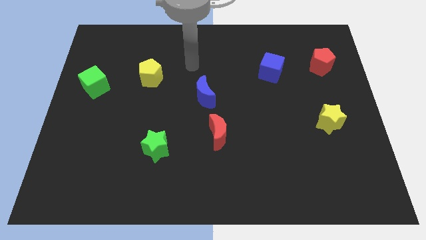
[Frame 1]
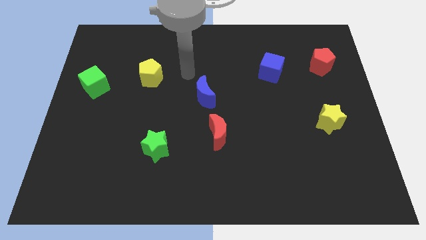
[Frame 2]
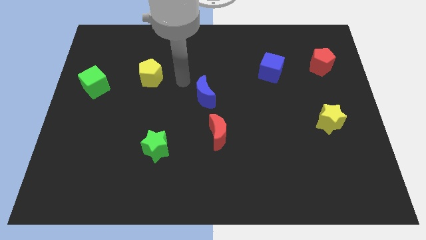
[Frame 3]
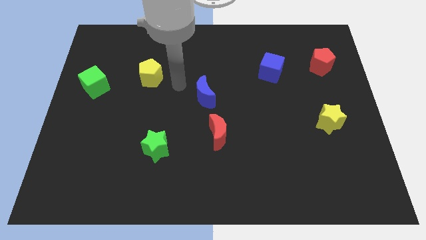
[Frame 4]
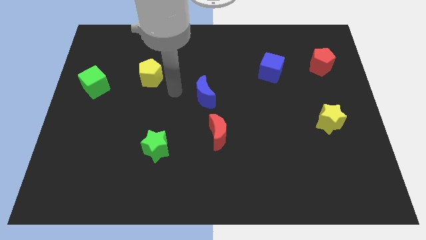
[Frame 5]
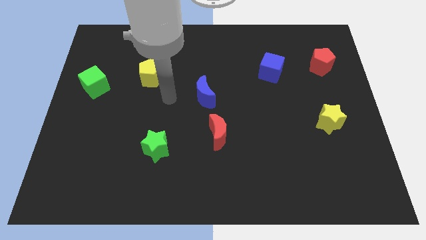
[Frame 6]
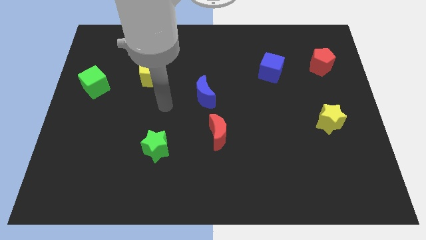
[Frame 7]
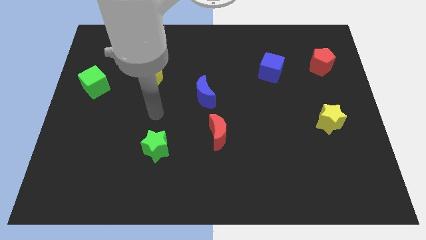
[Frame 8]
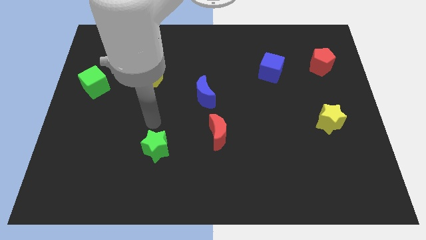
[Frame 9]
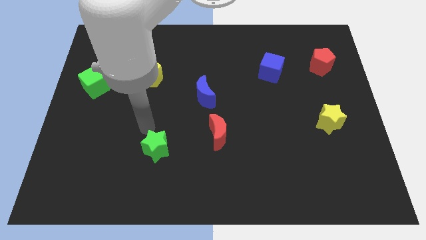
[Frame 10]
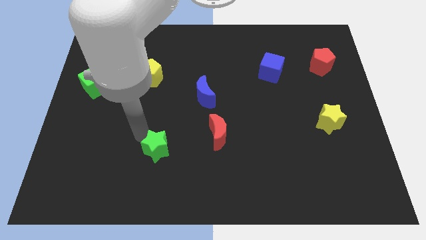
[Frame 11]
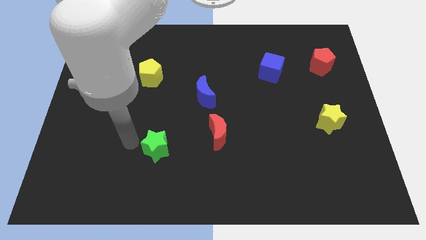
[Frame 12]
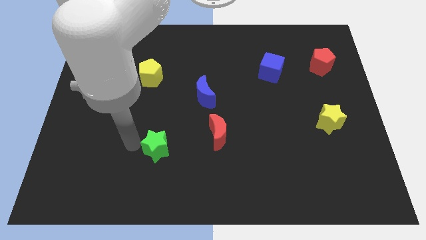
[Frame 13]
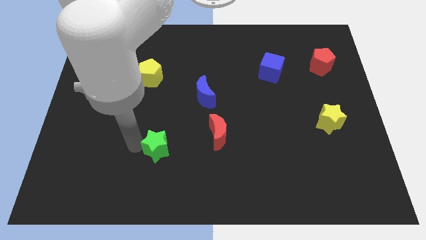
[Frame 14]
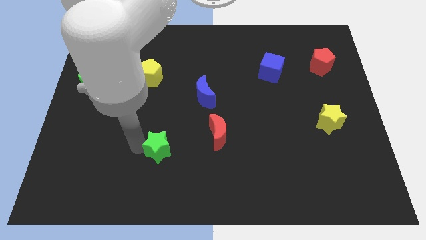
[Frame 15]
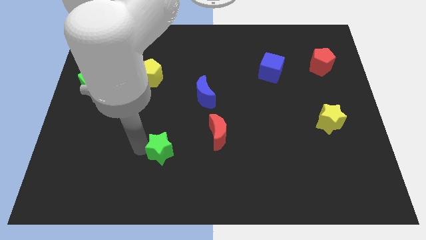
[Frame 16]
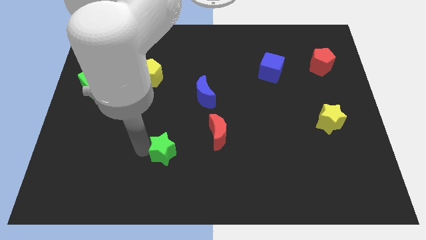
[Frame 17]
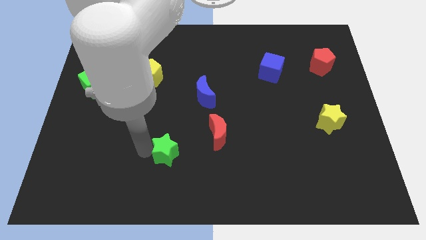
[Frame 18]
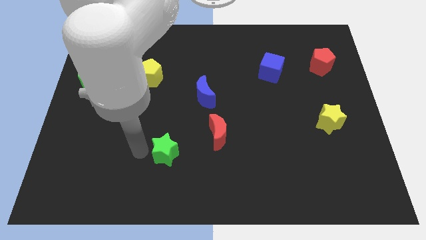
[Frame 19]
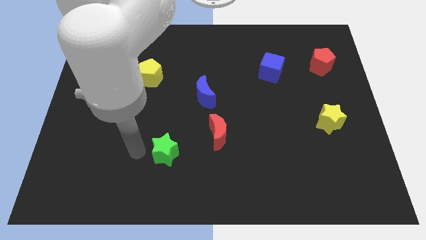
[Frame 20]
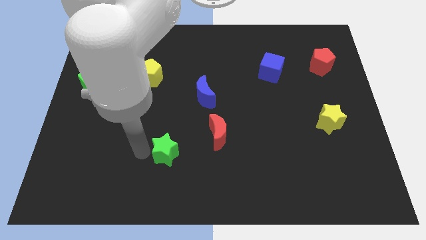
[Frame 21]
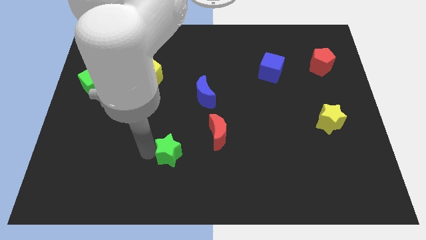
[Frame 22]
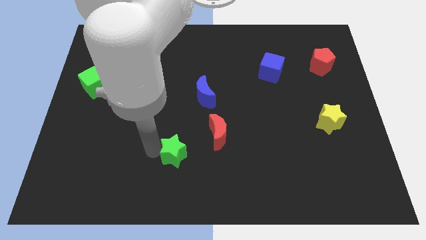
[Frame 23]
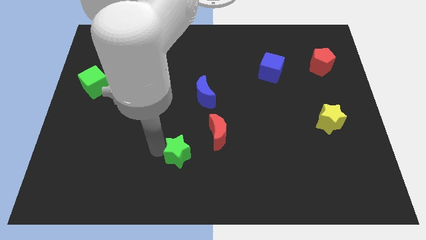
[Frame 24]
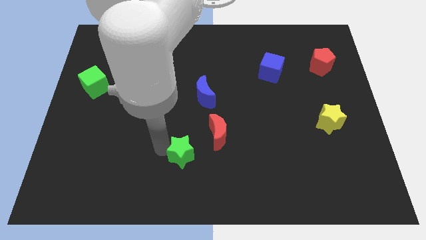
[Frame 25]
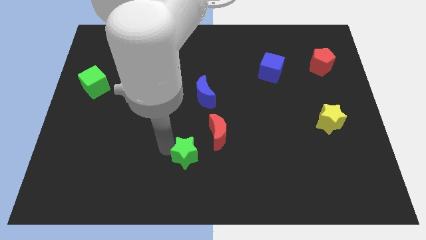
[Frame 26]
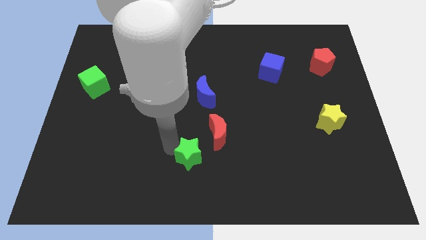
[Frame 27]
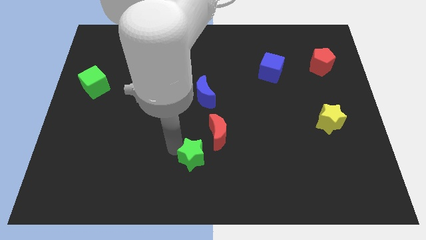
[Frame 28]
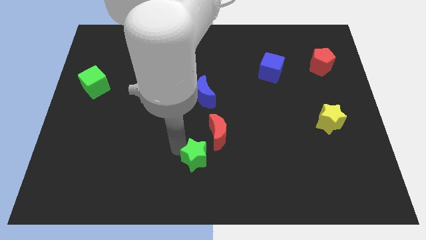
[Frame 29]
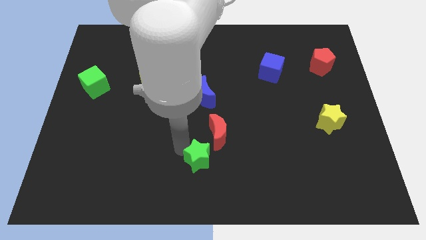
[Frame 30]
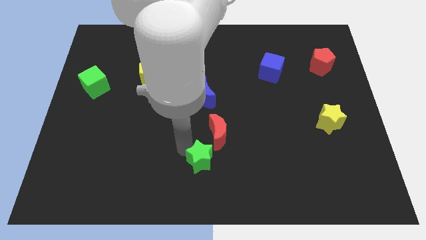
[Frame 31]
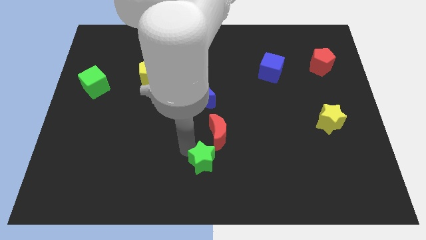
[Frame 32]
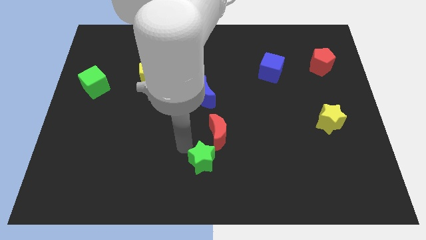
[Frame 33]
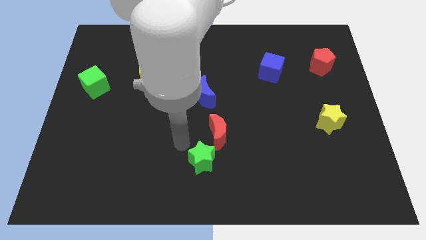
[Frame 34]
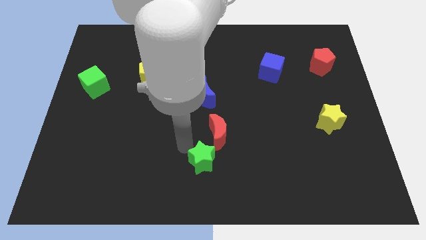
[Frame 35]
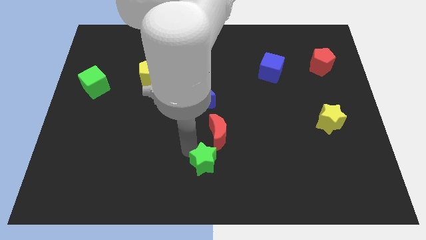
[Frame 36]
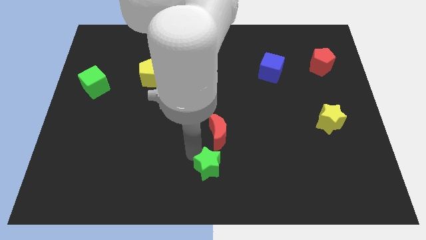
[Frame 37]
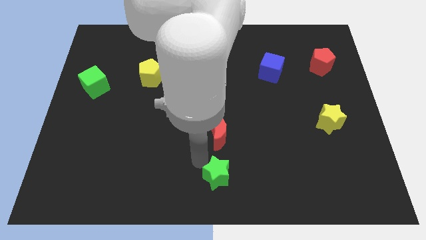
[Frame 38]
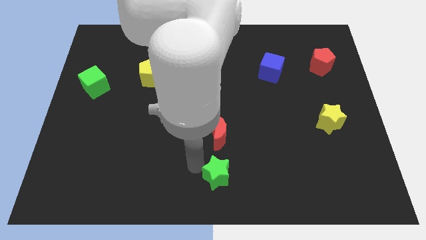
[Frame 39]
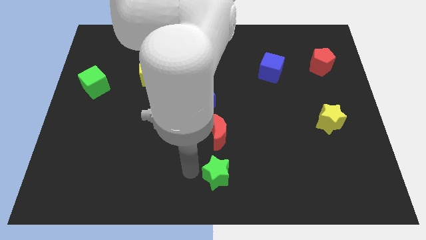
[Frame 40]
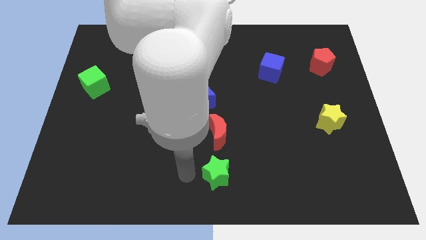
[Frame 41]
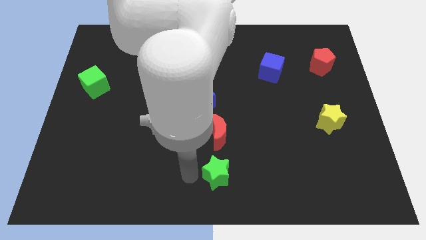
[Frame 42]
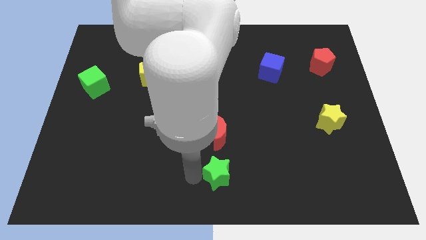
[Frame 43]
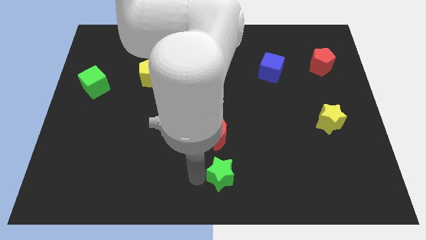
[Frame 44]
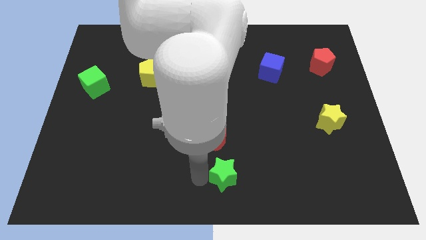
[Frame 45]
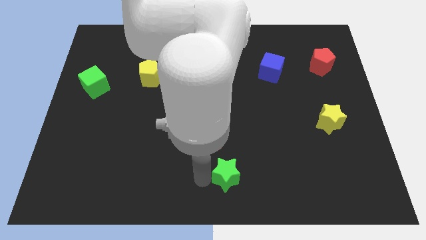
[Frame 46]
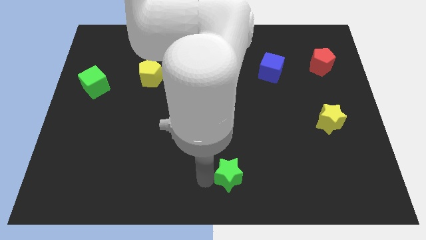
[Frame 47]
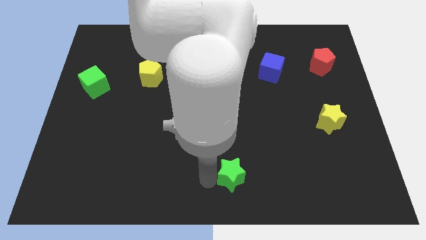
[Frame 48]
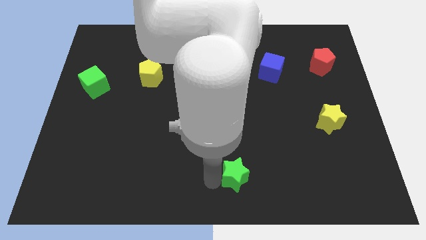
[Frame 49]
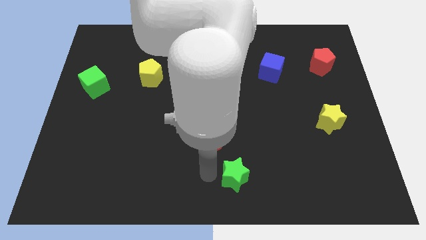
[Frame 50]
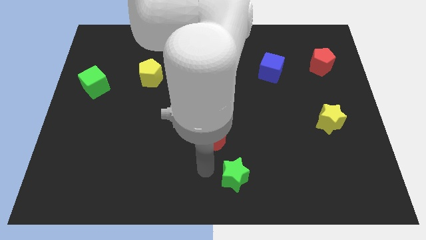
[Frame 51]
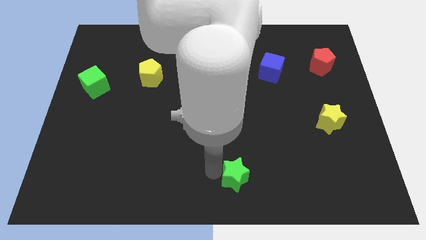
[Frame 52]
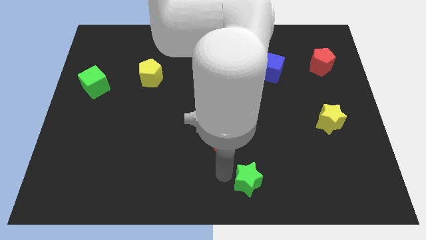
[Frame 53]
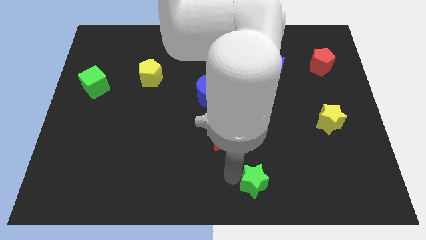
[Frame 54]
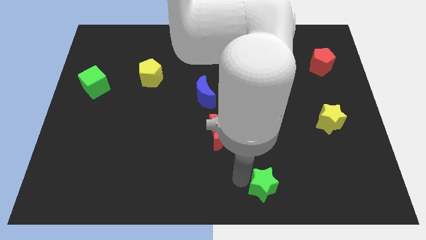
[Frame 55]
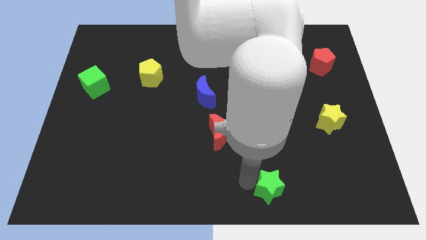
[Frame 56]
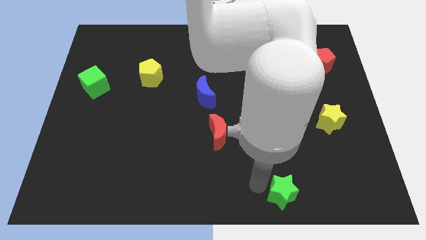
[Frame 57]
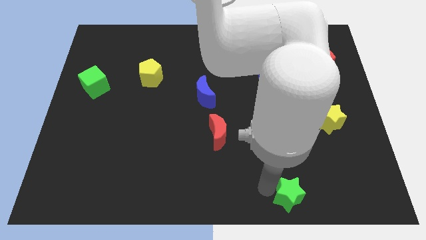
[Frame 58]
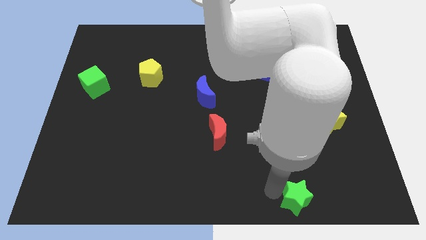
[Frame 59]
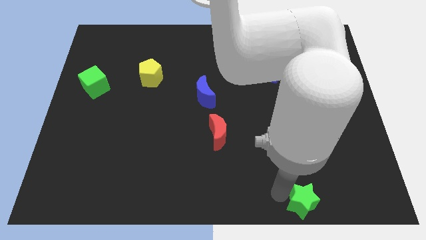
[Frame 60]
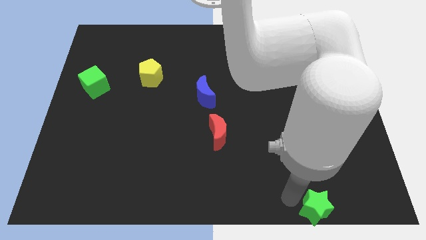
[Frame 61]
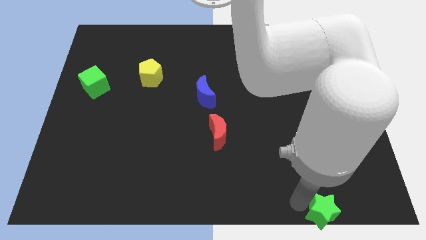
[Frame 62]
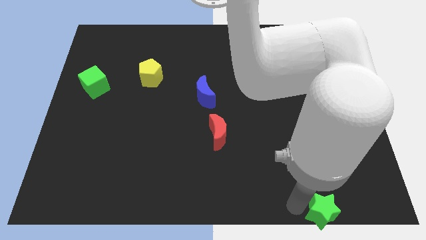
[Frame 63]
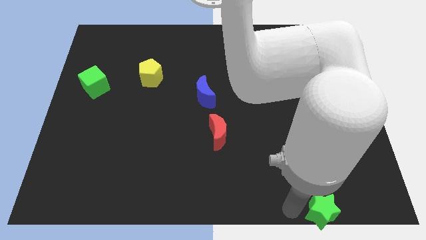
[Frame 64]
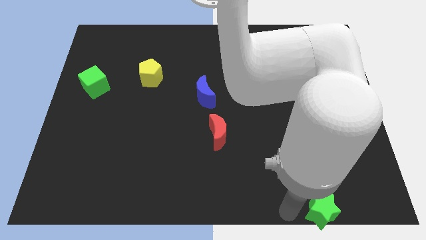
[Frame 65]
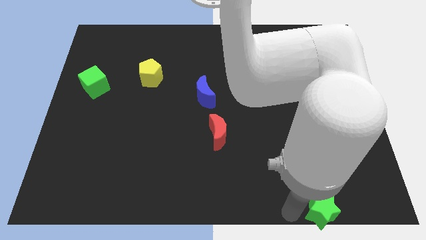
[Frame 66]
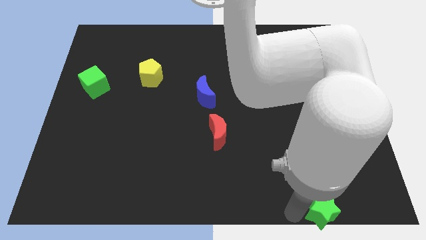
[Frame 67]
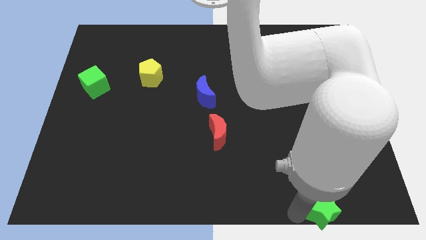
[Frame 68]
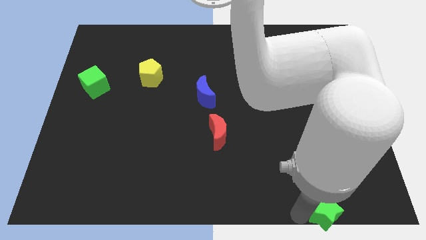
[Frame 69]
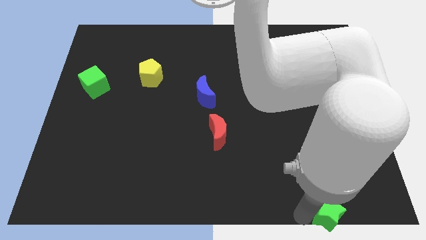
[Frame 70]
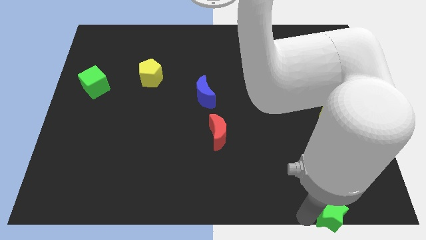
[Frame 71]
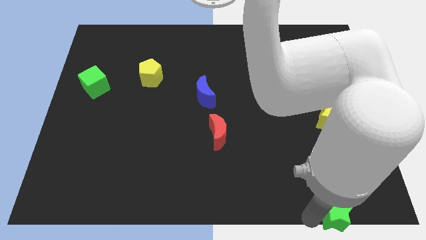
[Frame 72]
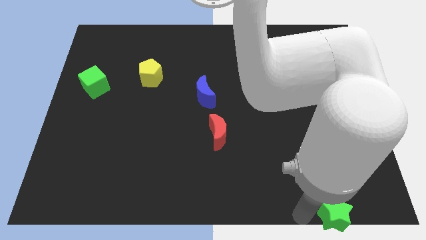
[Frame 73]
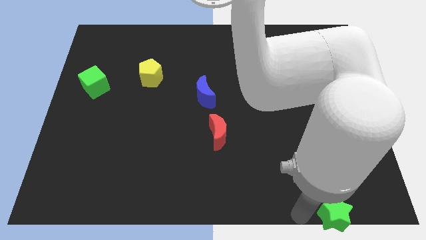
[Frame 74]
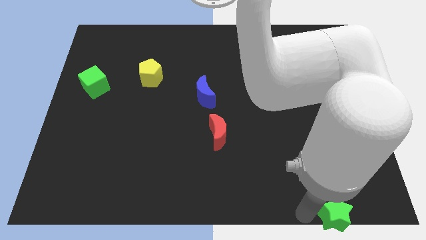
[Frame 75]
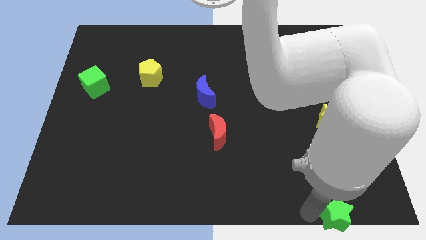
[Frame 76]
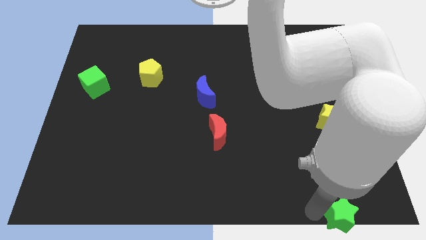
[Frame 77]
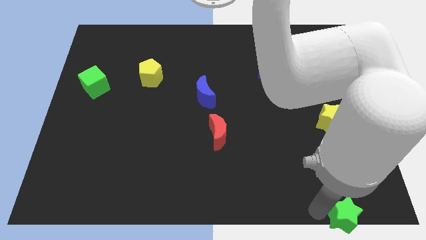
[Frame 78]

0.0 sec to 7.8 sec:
move the green star to the bottom right
